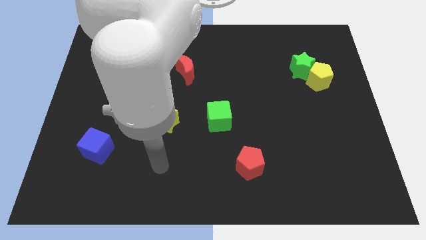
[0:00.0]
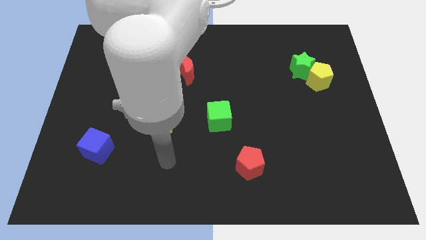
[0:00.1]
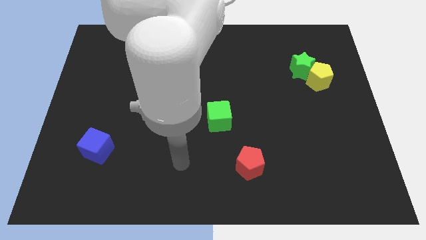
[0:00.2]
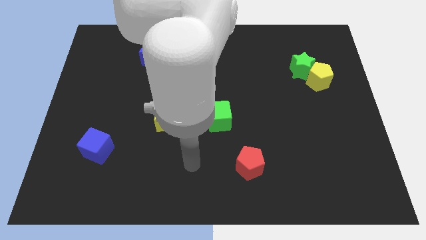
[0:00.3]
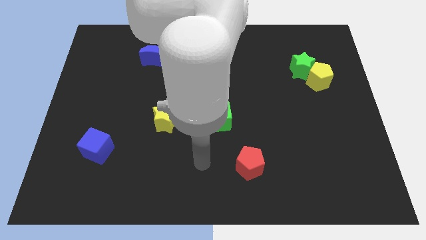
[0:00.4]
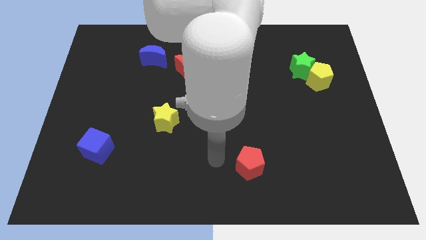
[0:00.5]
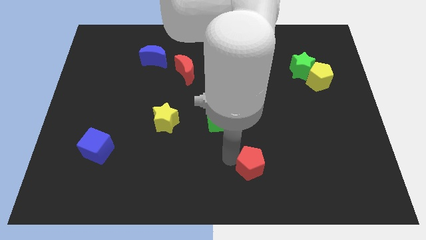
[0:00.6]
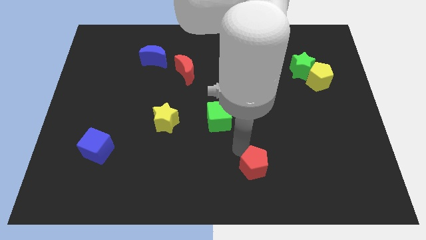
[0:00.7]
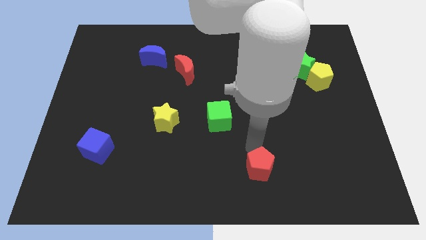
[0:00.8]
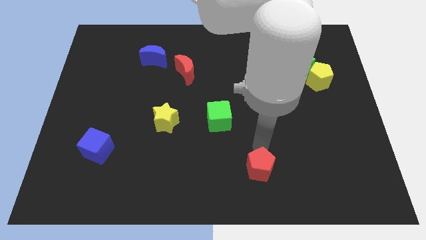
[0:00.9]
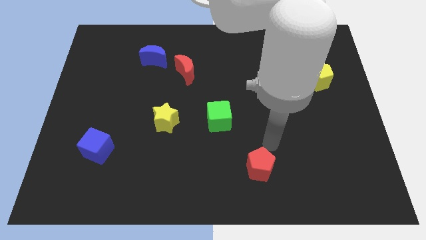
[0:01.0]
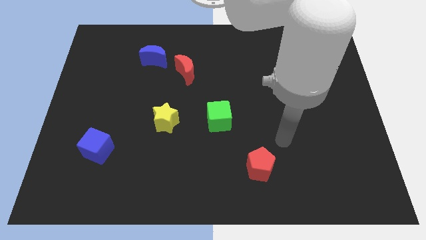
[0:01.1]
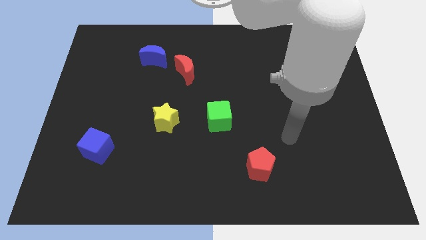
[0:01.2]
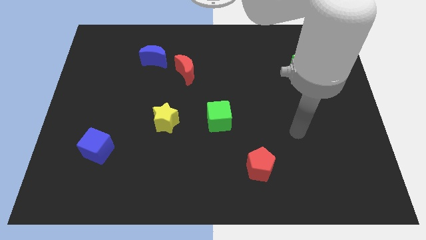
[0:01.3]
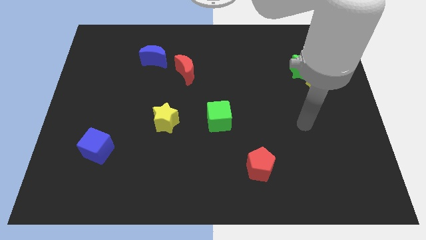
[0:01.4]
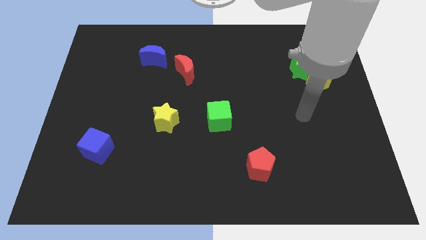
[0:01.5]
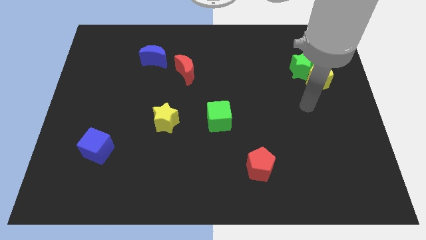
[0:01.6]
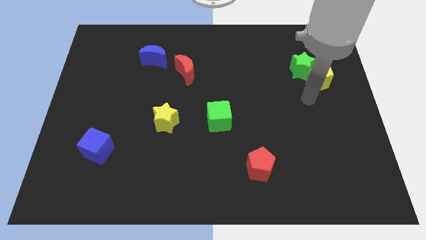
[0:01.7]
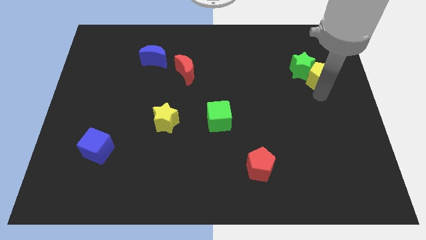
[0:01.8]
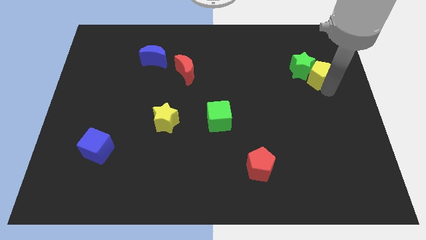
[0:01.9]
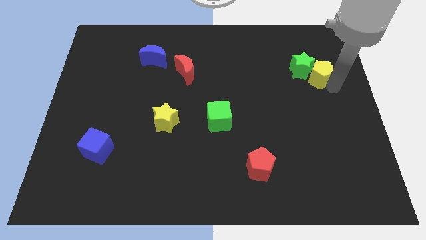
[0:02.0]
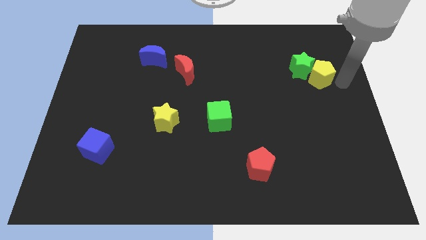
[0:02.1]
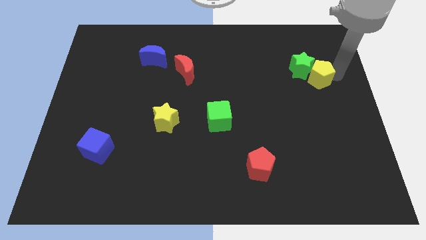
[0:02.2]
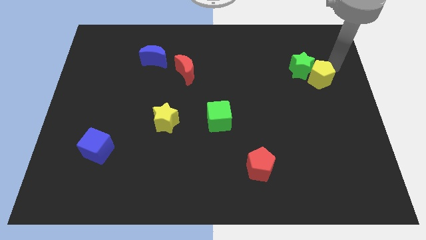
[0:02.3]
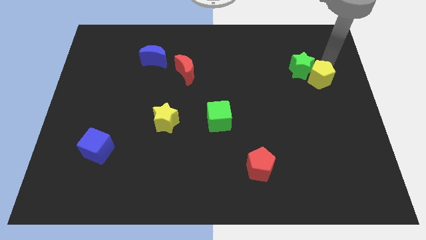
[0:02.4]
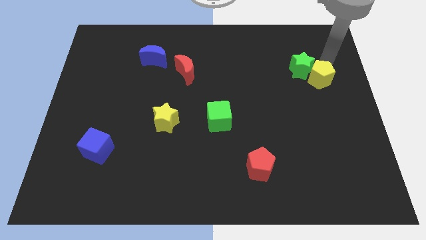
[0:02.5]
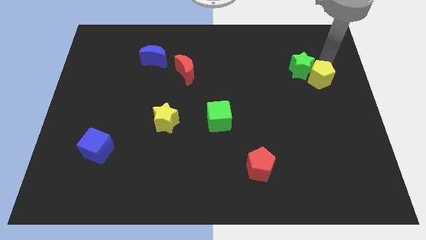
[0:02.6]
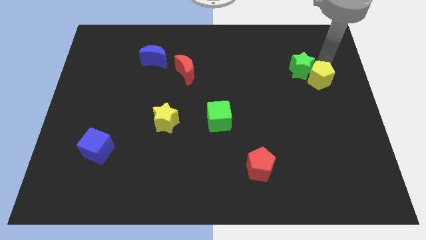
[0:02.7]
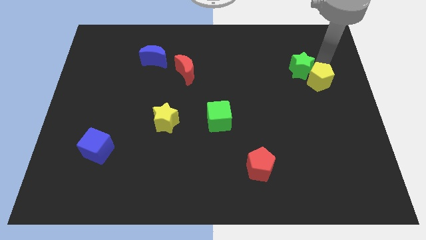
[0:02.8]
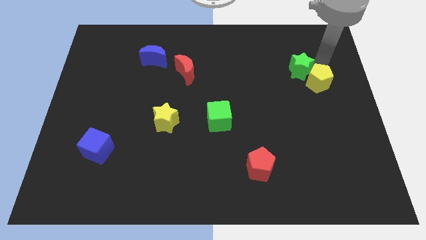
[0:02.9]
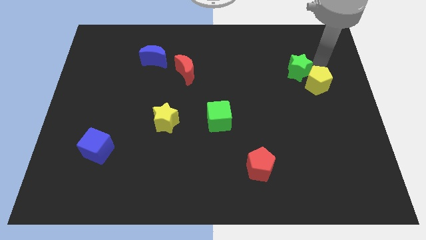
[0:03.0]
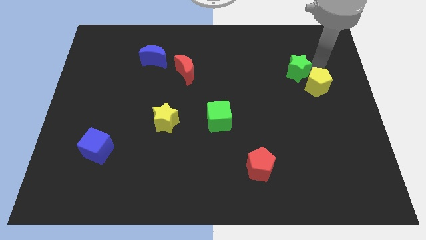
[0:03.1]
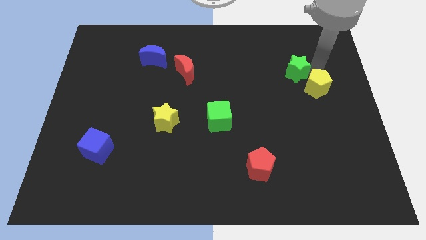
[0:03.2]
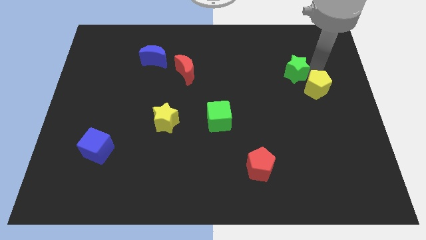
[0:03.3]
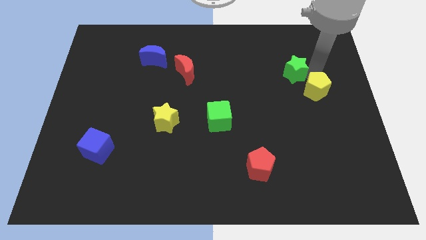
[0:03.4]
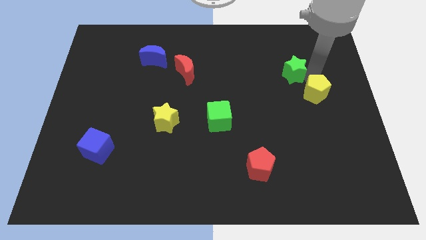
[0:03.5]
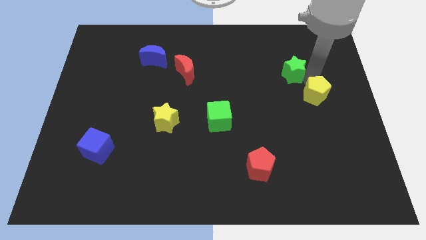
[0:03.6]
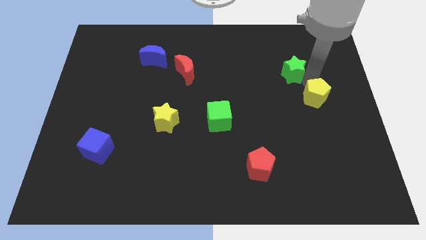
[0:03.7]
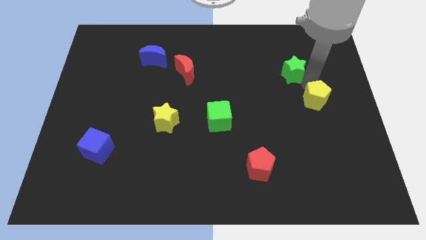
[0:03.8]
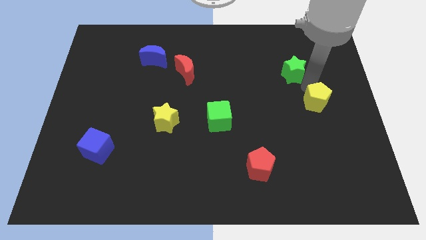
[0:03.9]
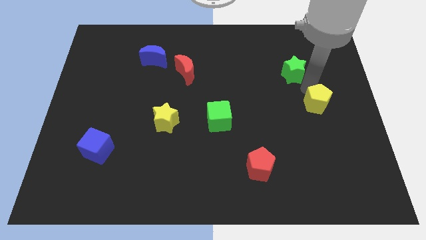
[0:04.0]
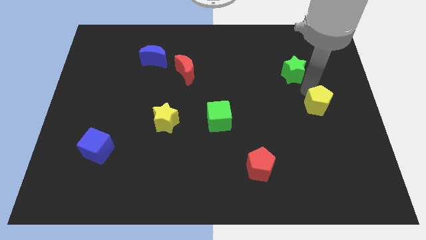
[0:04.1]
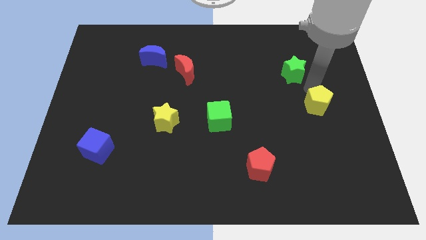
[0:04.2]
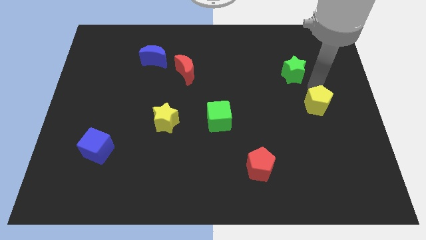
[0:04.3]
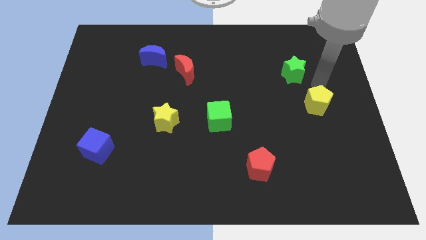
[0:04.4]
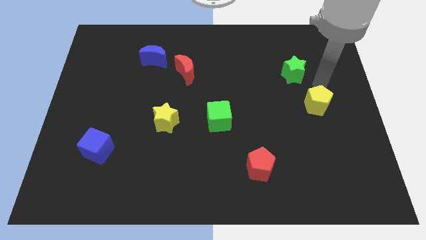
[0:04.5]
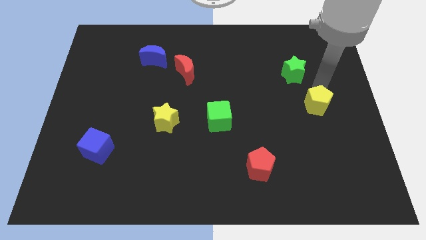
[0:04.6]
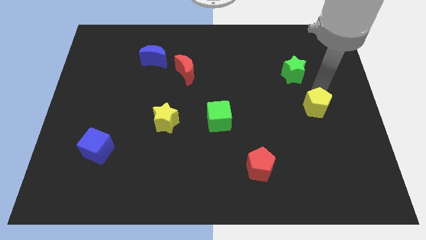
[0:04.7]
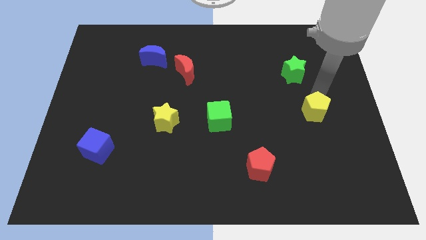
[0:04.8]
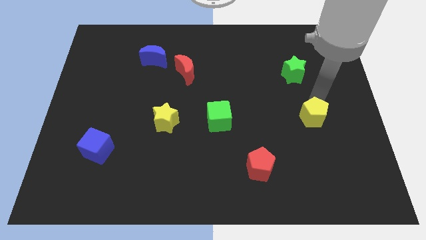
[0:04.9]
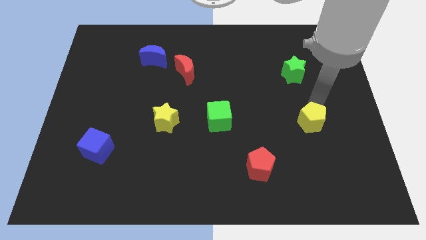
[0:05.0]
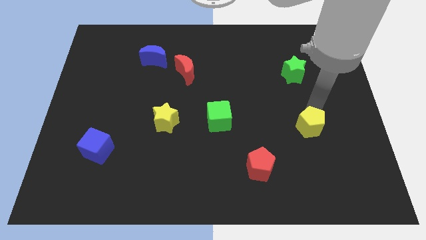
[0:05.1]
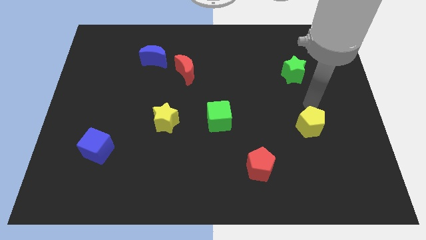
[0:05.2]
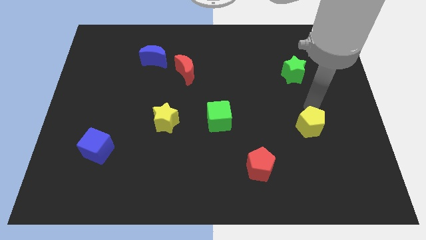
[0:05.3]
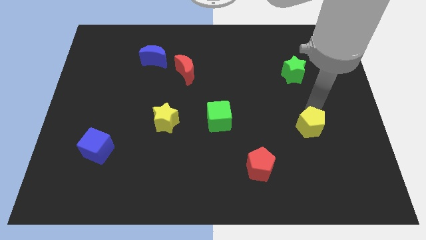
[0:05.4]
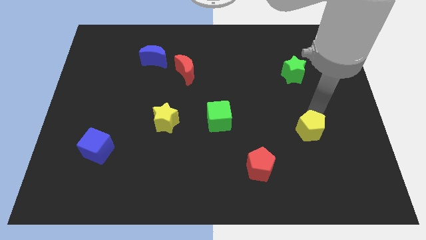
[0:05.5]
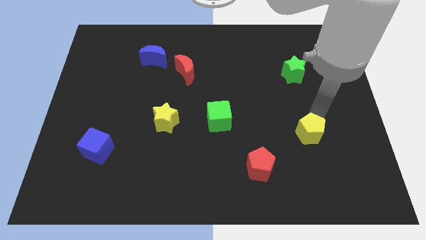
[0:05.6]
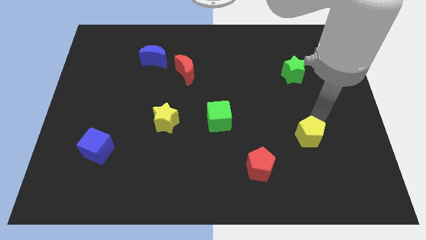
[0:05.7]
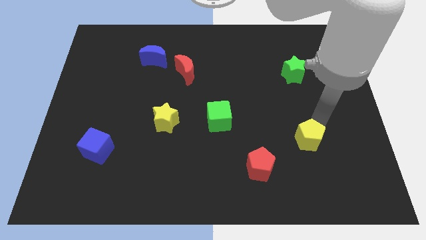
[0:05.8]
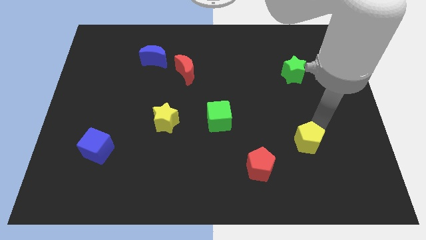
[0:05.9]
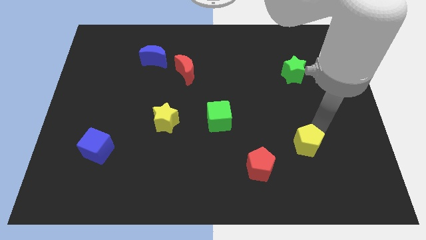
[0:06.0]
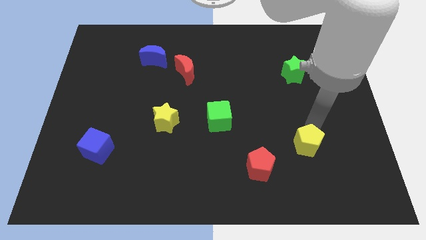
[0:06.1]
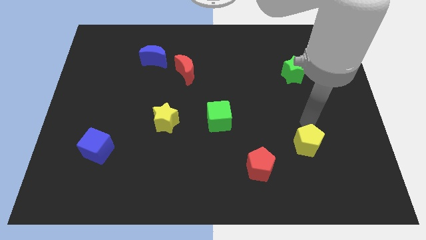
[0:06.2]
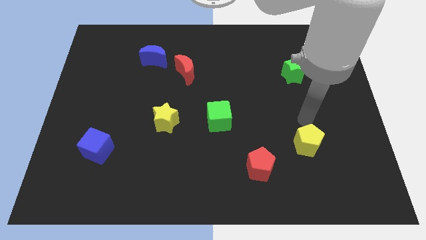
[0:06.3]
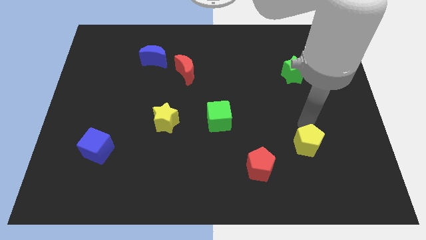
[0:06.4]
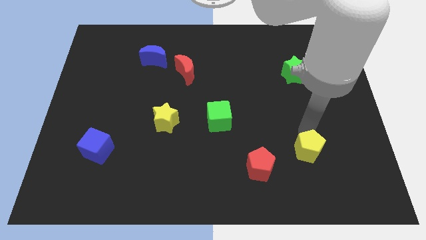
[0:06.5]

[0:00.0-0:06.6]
slide the yellow pentagon just right of the red pentagon

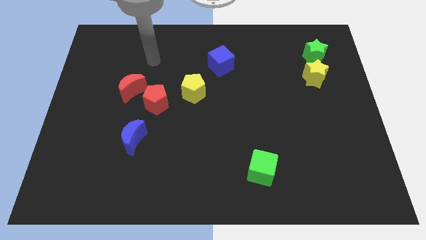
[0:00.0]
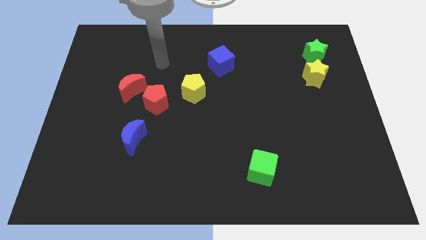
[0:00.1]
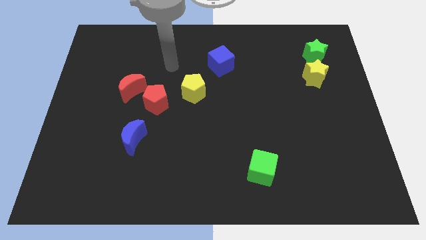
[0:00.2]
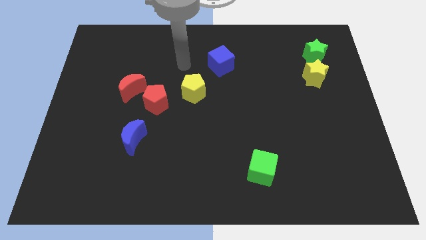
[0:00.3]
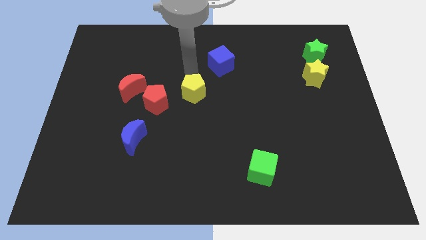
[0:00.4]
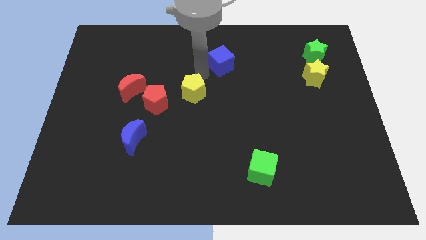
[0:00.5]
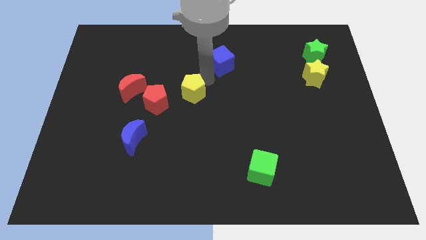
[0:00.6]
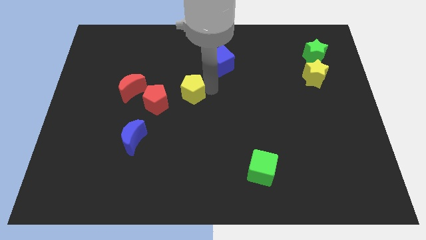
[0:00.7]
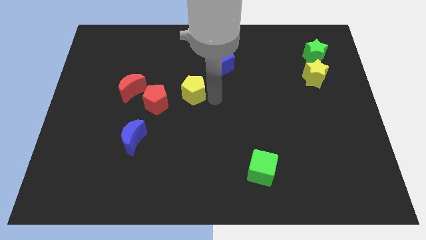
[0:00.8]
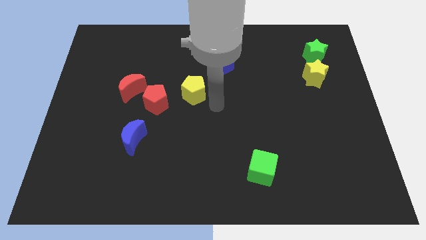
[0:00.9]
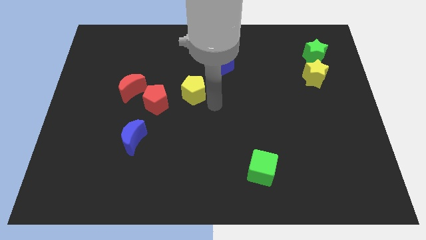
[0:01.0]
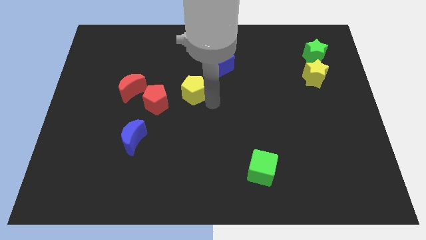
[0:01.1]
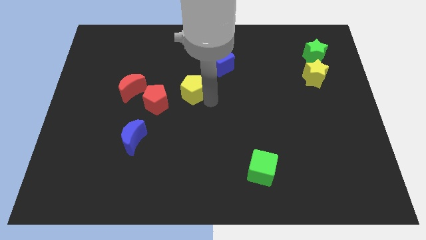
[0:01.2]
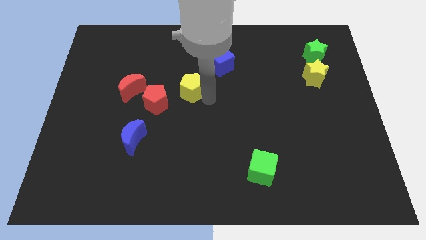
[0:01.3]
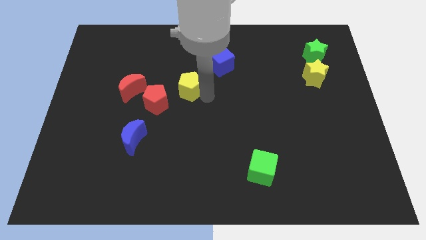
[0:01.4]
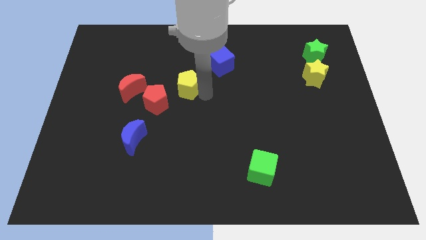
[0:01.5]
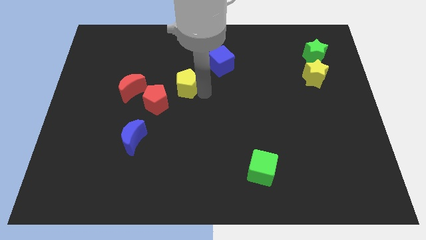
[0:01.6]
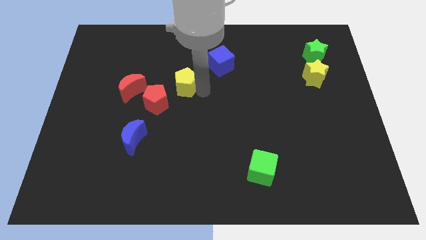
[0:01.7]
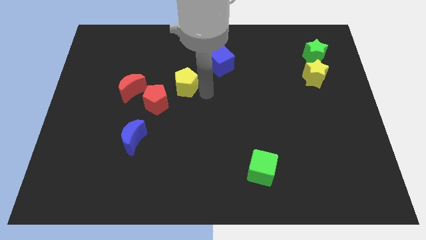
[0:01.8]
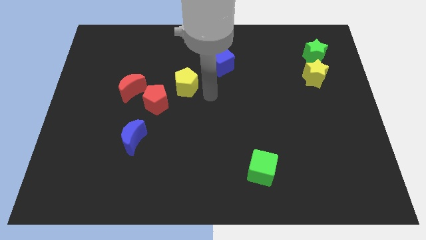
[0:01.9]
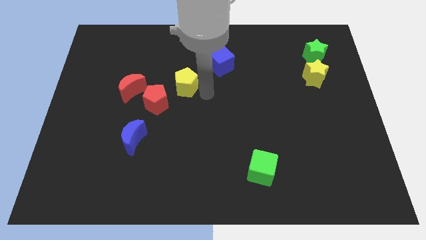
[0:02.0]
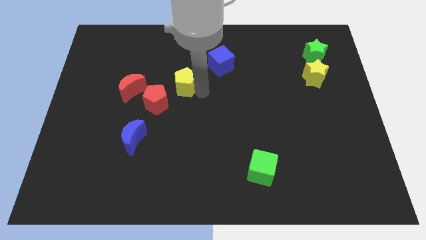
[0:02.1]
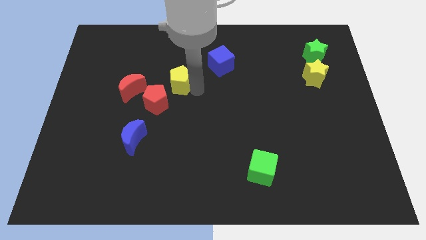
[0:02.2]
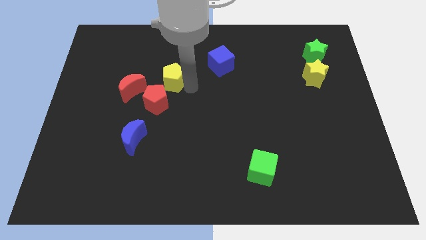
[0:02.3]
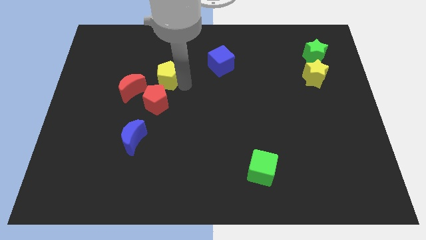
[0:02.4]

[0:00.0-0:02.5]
slide the yellow pentagon to the top right of the red moon
